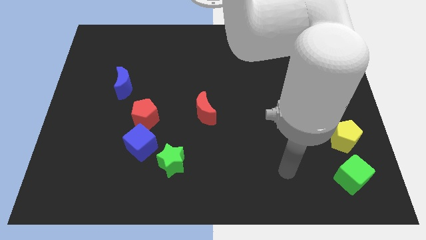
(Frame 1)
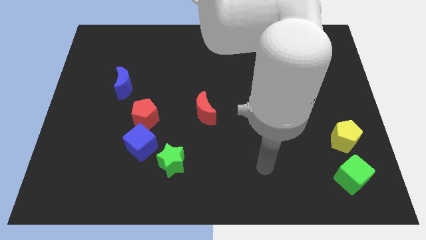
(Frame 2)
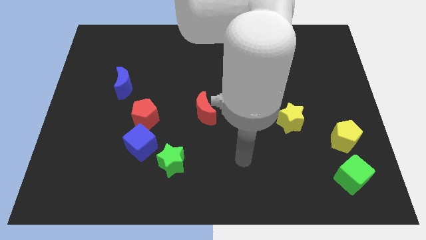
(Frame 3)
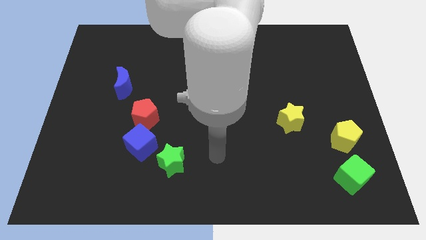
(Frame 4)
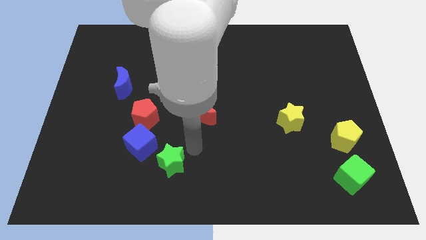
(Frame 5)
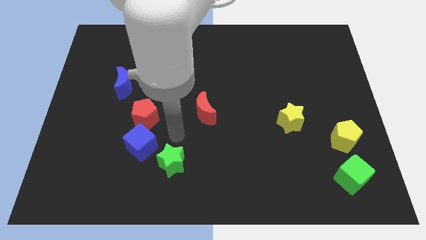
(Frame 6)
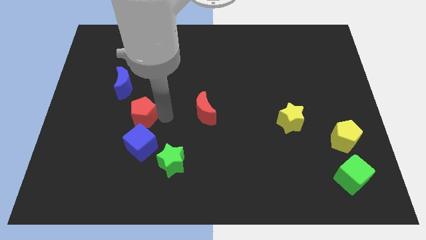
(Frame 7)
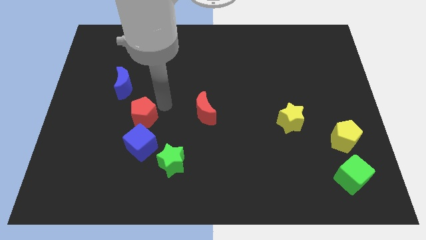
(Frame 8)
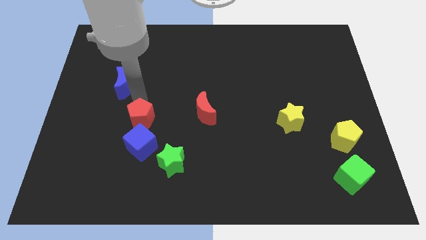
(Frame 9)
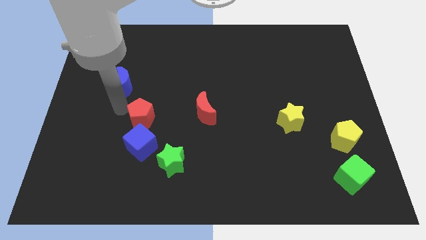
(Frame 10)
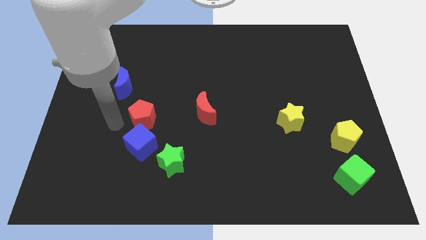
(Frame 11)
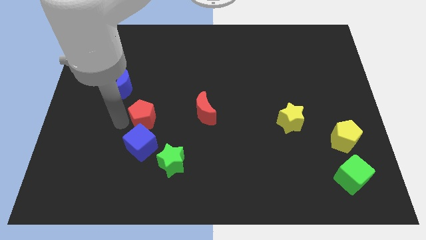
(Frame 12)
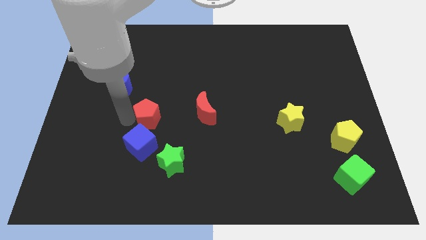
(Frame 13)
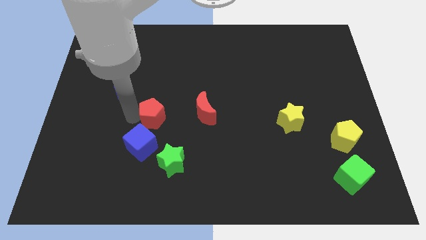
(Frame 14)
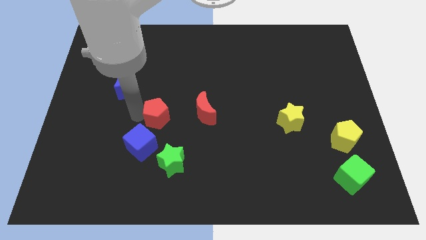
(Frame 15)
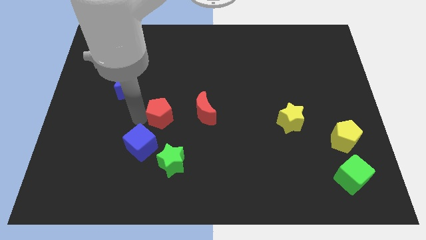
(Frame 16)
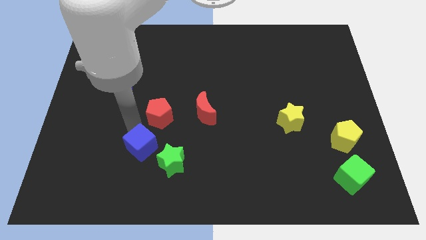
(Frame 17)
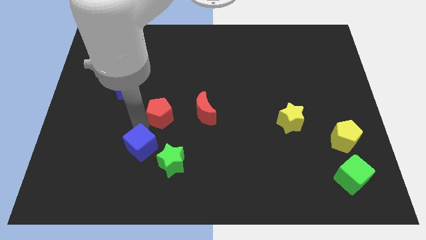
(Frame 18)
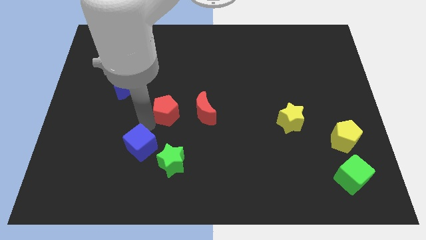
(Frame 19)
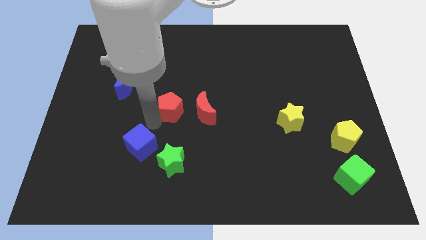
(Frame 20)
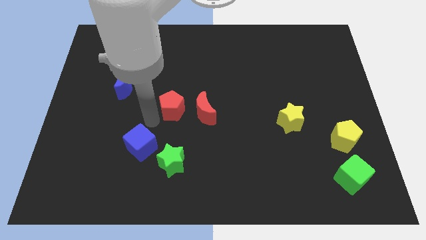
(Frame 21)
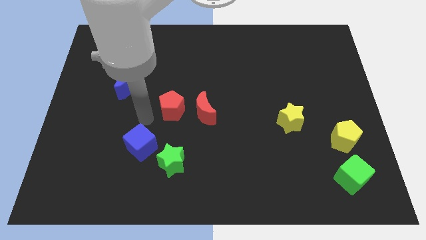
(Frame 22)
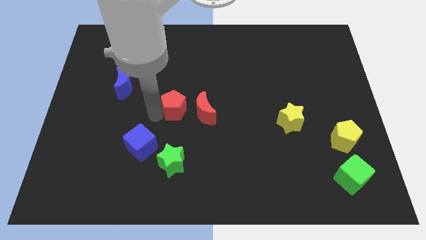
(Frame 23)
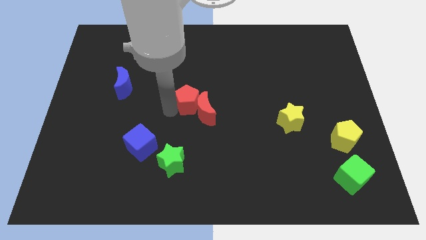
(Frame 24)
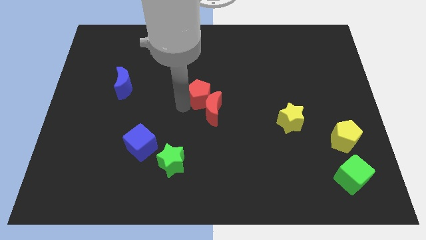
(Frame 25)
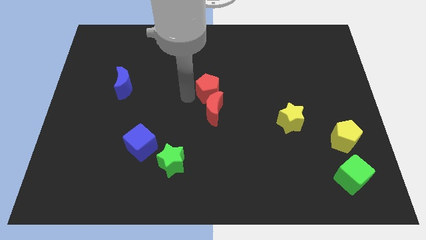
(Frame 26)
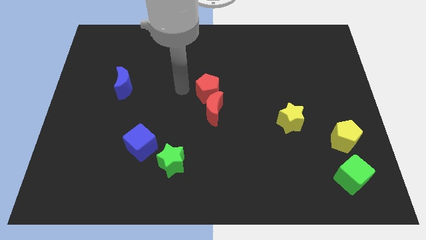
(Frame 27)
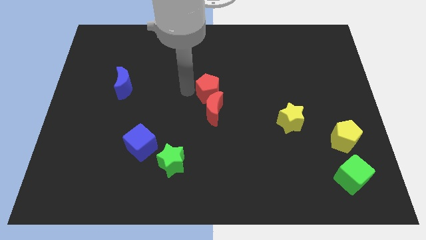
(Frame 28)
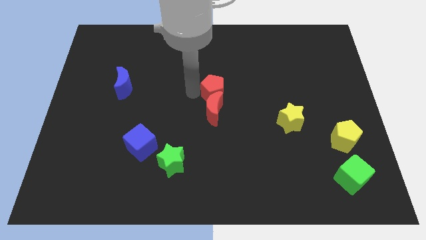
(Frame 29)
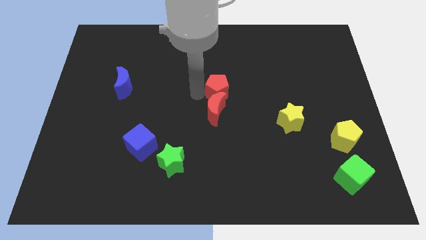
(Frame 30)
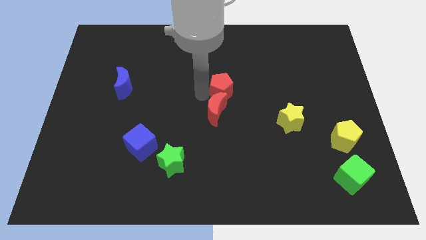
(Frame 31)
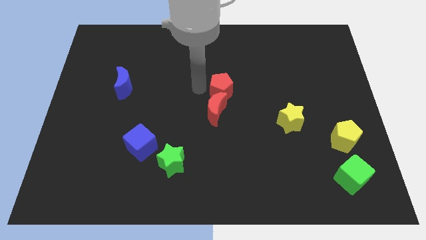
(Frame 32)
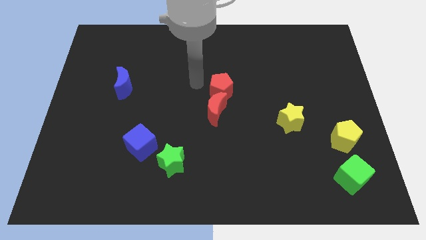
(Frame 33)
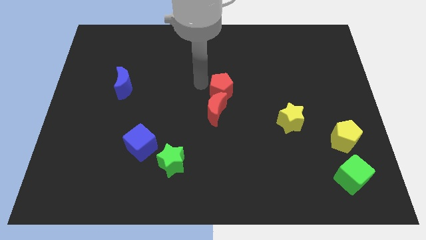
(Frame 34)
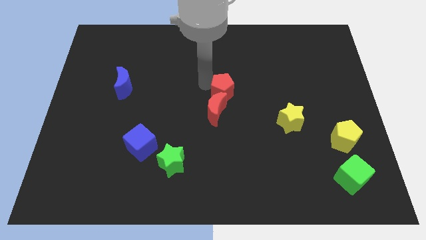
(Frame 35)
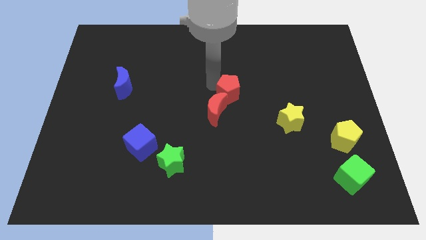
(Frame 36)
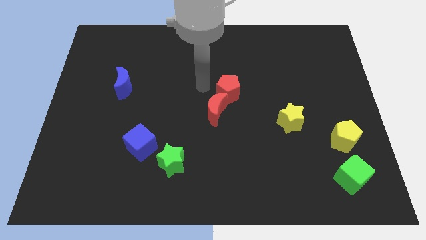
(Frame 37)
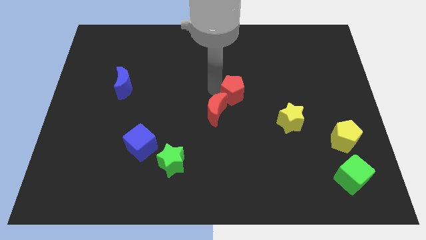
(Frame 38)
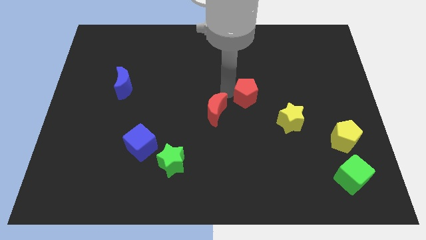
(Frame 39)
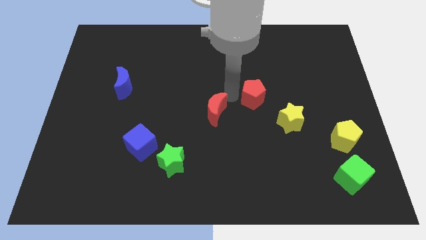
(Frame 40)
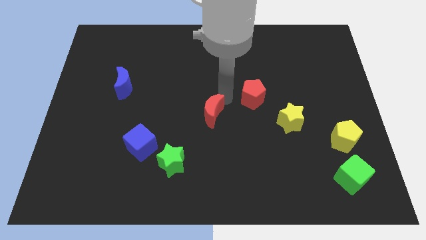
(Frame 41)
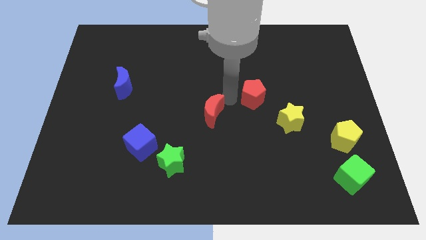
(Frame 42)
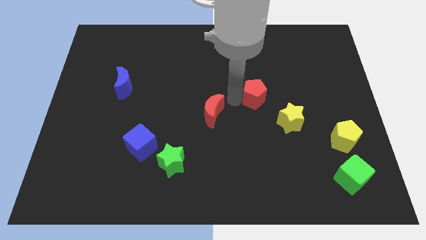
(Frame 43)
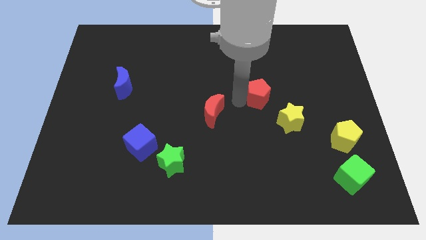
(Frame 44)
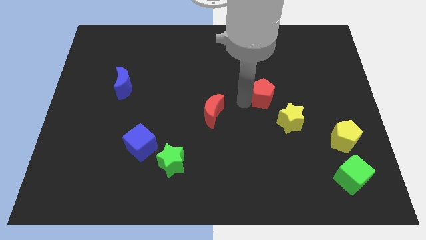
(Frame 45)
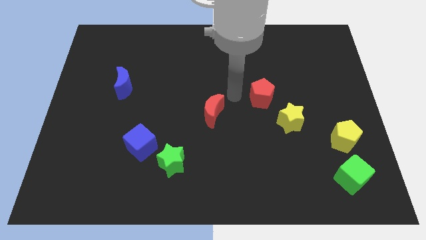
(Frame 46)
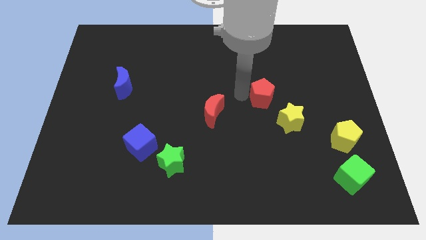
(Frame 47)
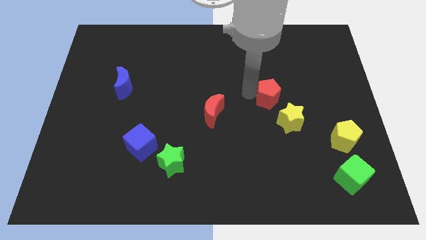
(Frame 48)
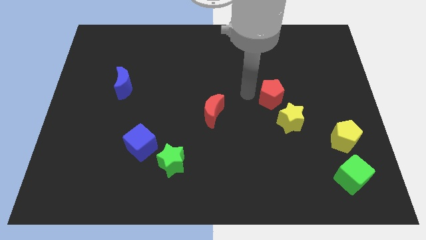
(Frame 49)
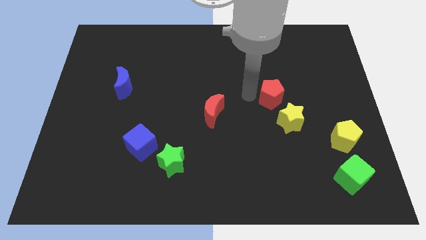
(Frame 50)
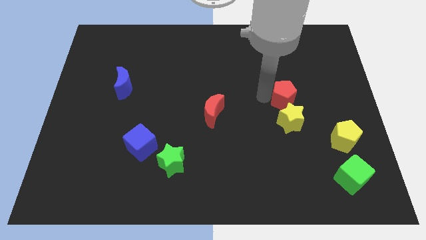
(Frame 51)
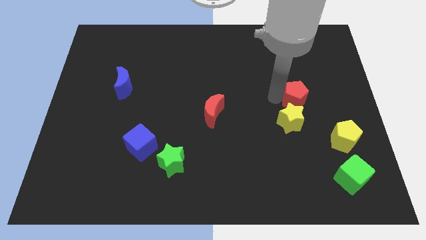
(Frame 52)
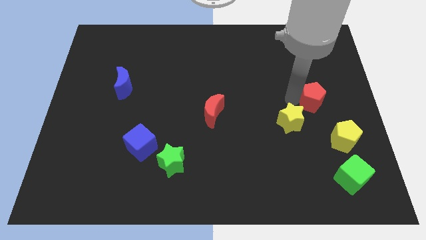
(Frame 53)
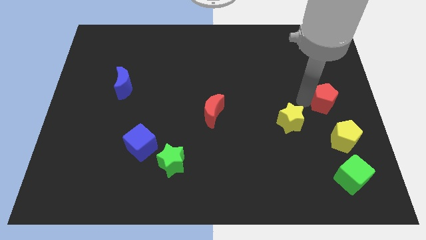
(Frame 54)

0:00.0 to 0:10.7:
push the red pentagon to the right side of the board

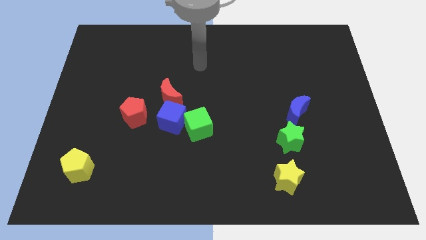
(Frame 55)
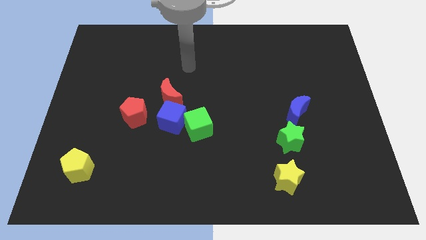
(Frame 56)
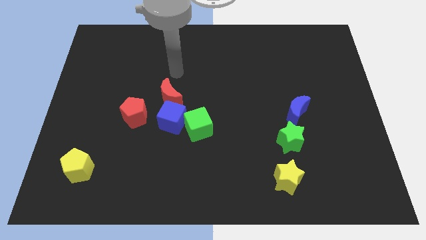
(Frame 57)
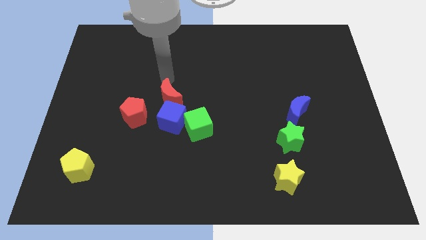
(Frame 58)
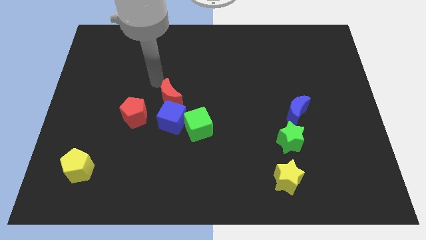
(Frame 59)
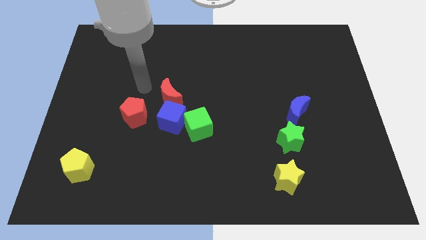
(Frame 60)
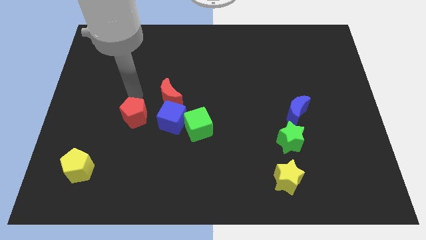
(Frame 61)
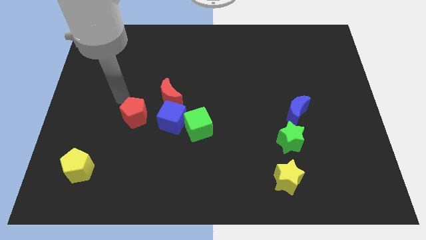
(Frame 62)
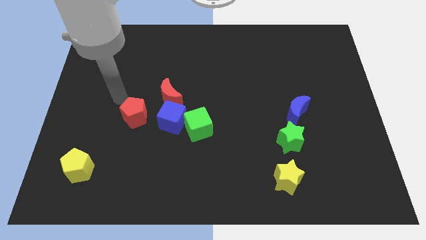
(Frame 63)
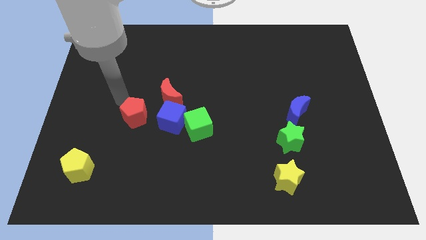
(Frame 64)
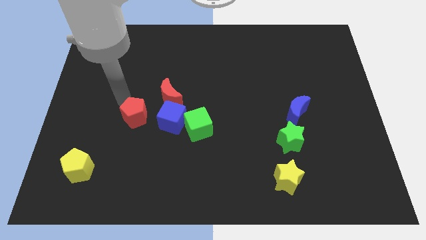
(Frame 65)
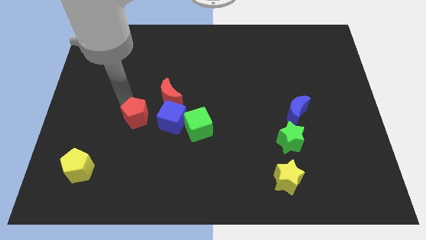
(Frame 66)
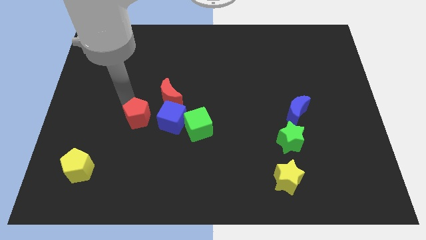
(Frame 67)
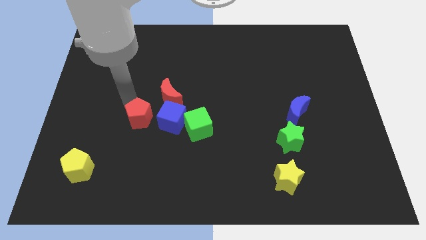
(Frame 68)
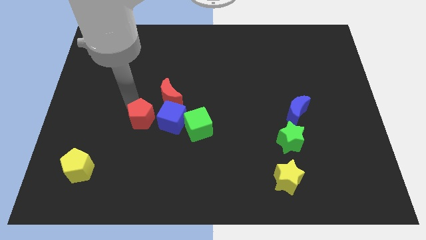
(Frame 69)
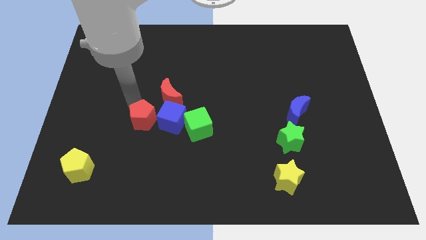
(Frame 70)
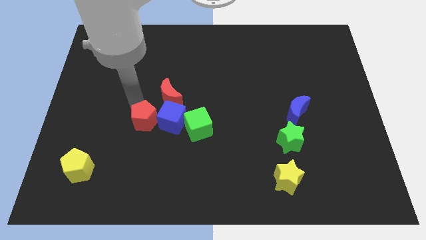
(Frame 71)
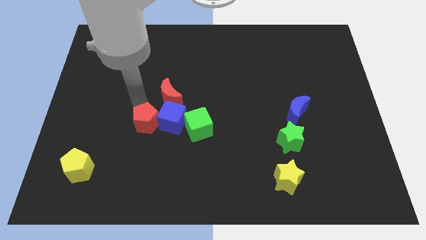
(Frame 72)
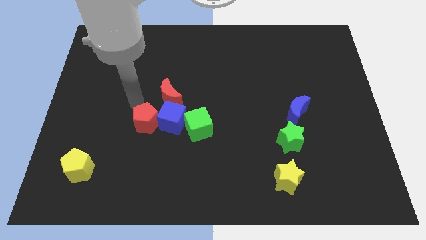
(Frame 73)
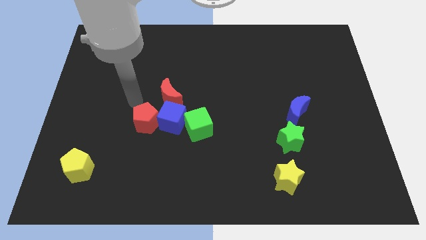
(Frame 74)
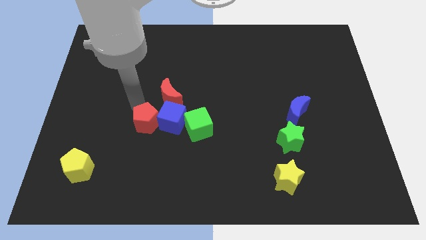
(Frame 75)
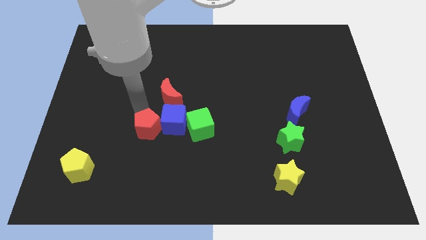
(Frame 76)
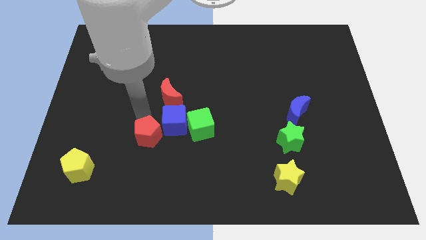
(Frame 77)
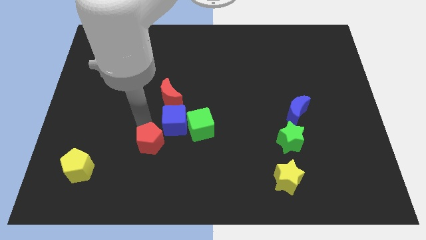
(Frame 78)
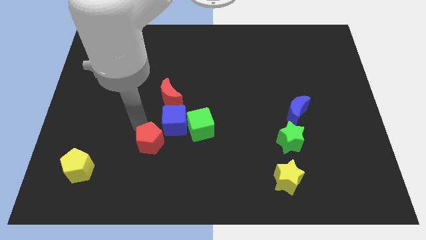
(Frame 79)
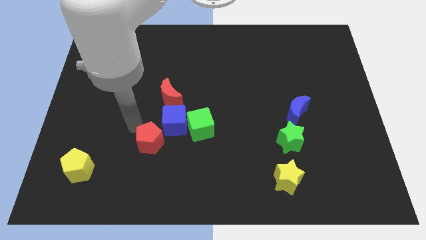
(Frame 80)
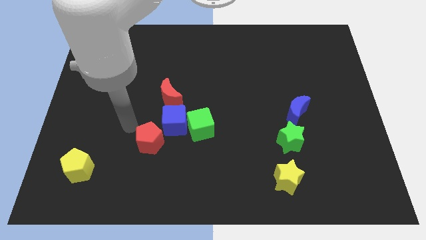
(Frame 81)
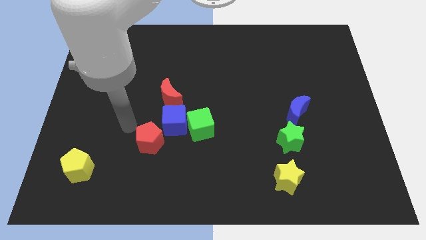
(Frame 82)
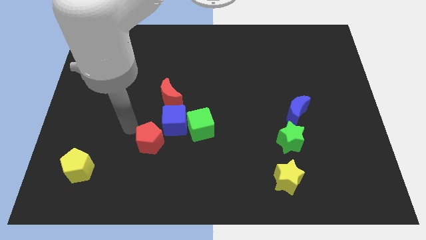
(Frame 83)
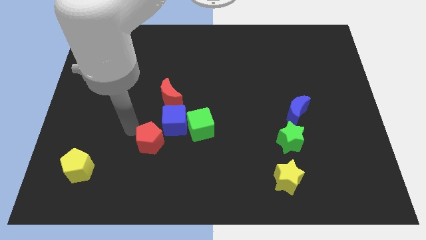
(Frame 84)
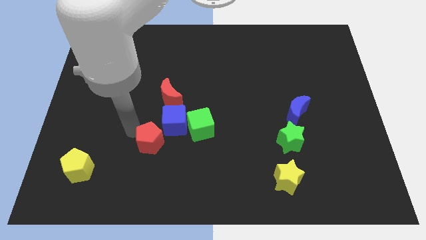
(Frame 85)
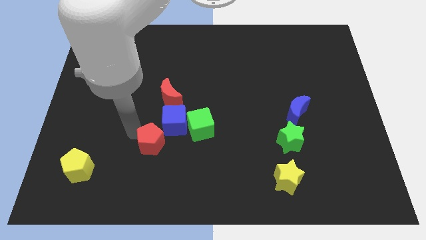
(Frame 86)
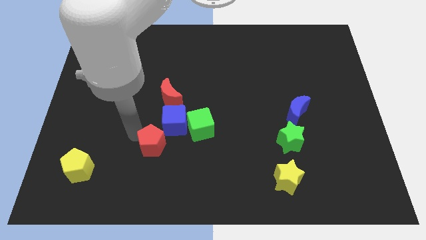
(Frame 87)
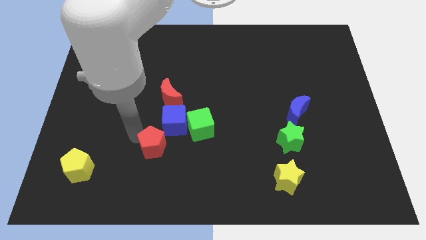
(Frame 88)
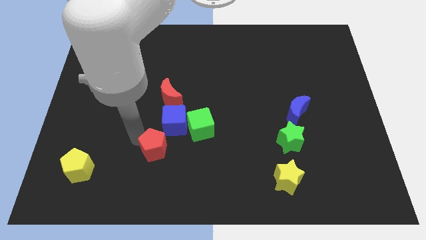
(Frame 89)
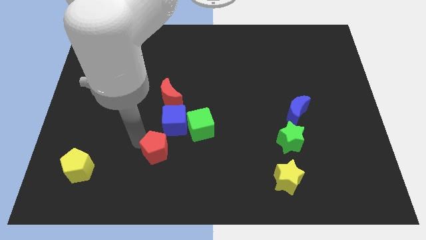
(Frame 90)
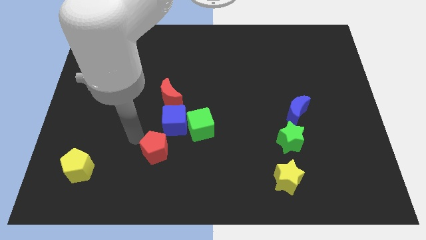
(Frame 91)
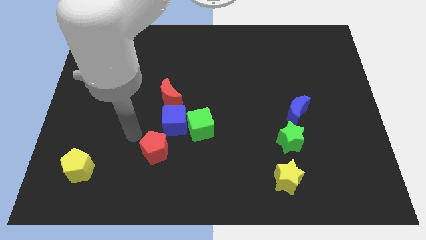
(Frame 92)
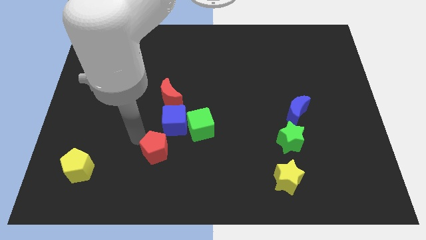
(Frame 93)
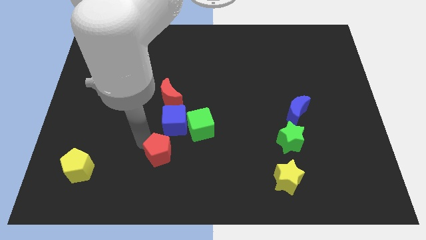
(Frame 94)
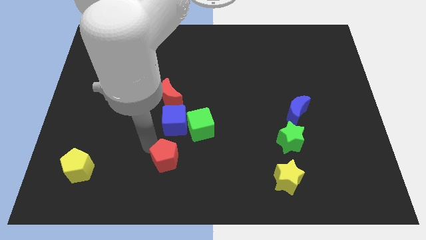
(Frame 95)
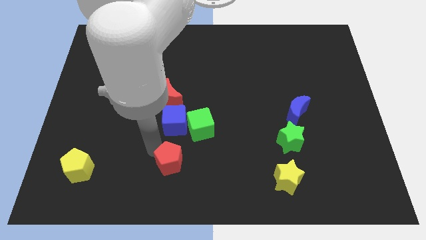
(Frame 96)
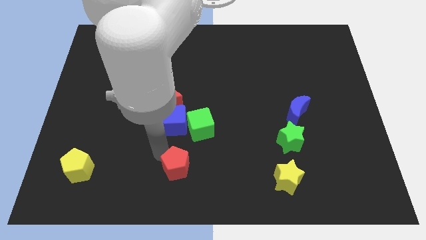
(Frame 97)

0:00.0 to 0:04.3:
move the red pentagon to the bottom
